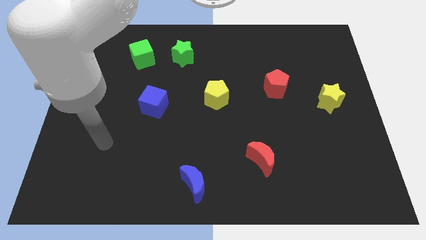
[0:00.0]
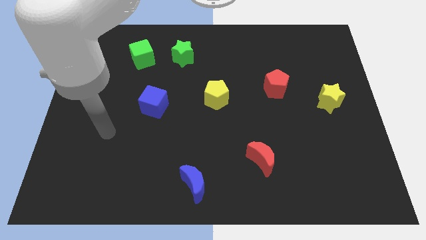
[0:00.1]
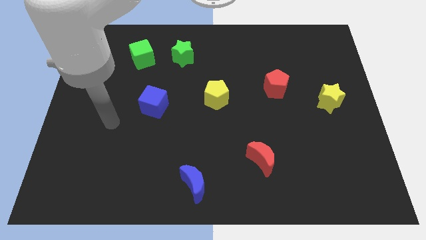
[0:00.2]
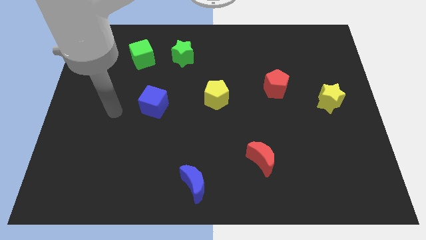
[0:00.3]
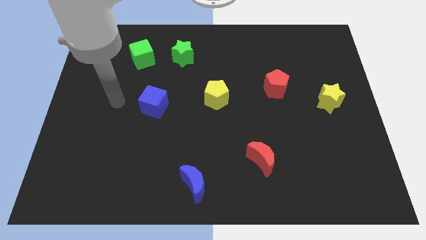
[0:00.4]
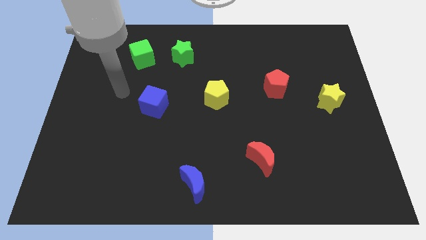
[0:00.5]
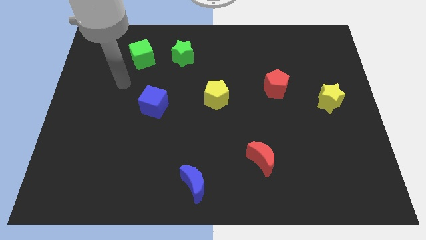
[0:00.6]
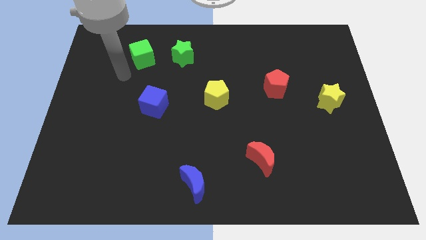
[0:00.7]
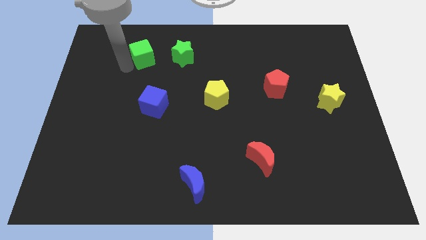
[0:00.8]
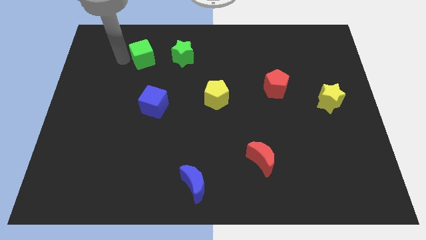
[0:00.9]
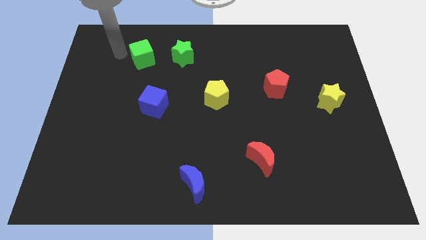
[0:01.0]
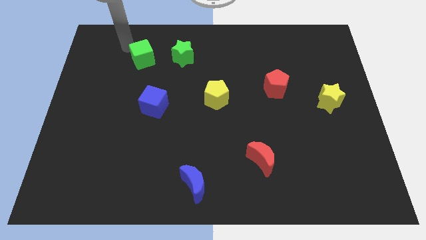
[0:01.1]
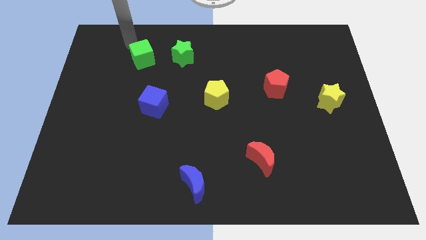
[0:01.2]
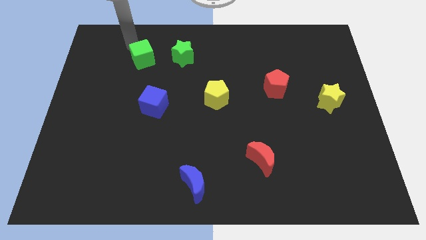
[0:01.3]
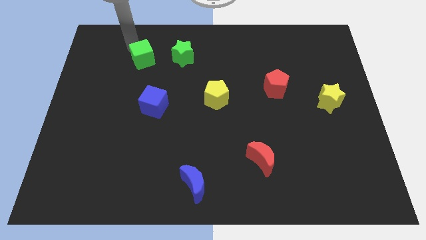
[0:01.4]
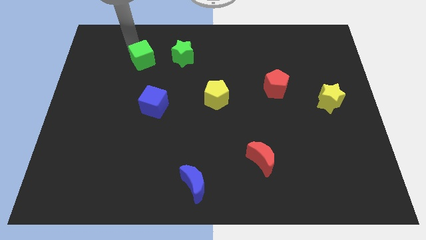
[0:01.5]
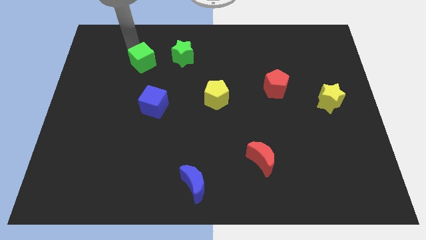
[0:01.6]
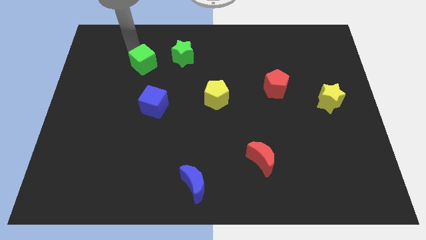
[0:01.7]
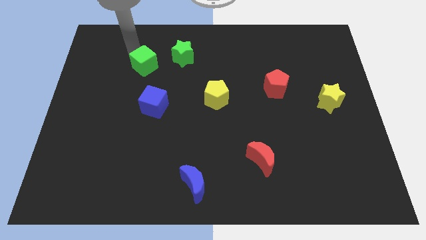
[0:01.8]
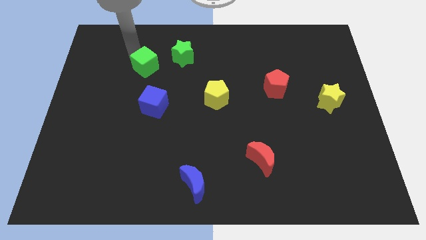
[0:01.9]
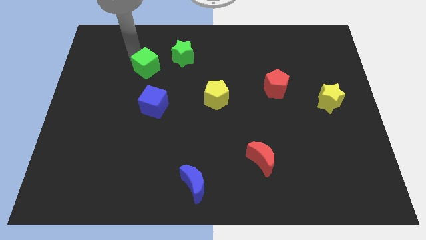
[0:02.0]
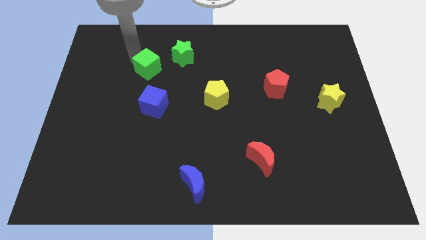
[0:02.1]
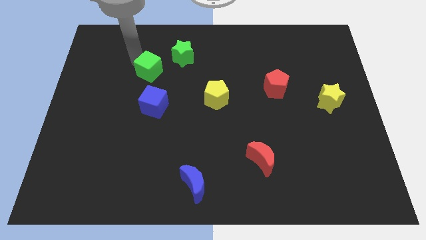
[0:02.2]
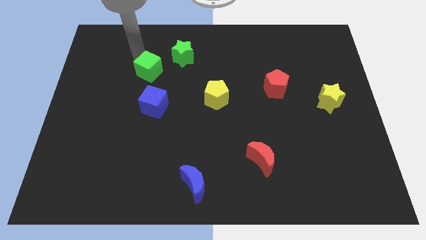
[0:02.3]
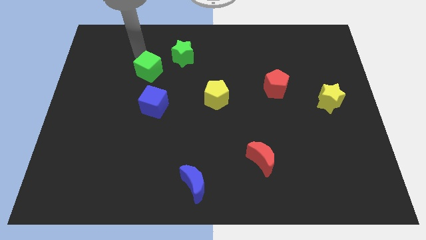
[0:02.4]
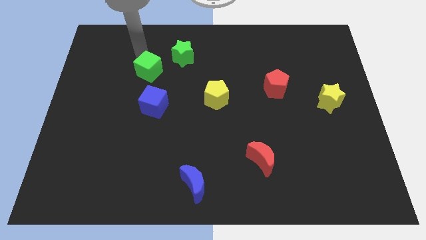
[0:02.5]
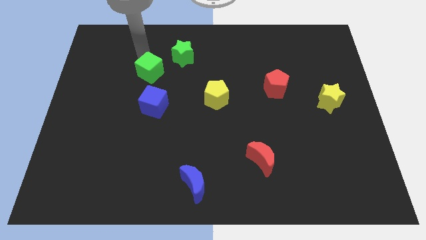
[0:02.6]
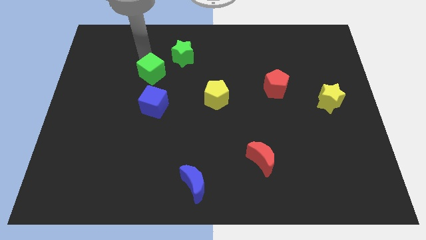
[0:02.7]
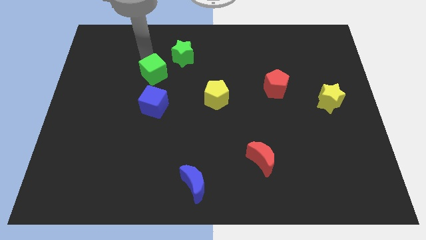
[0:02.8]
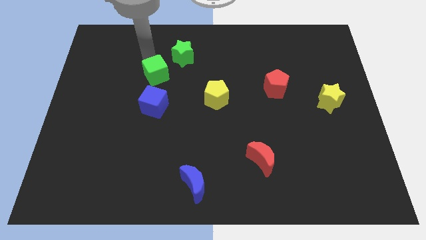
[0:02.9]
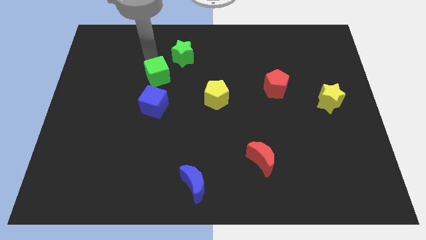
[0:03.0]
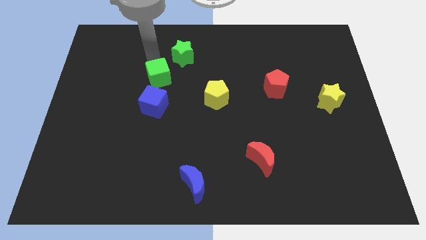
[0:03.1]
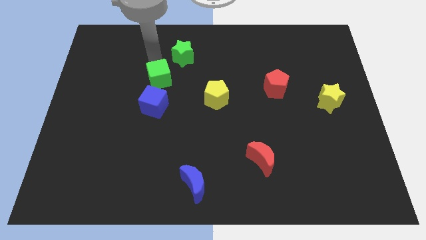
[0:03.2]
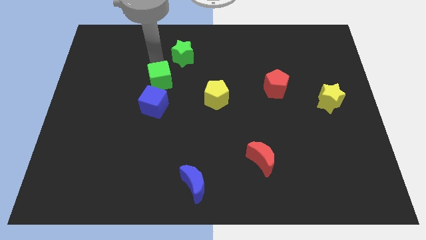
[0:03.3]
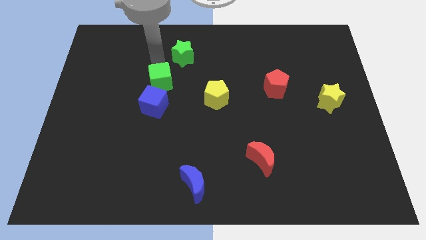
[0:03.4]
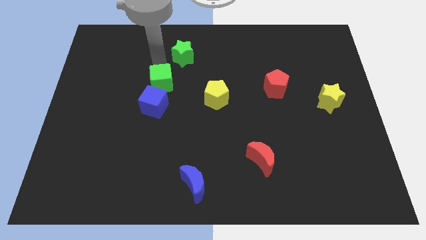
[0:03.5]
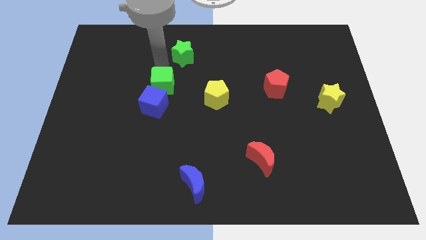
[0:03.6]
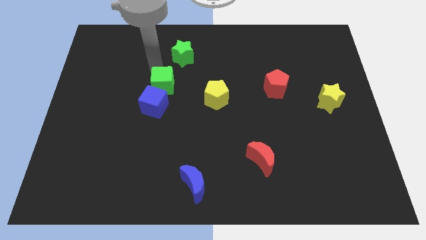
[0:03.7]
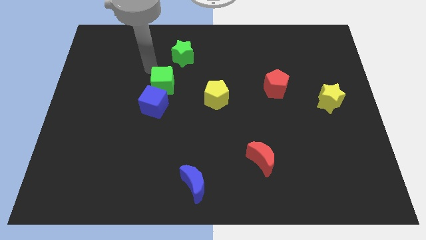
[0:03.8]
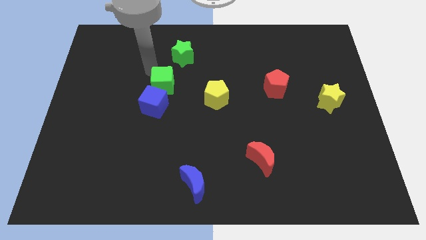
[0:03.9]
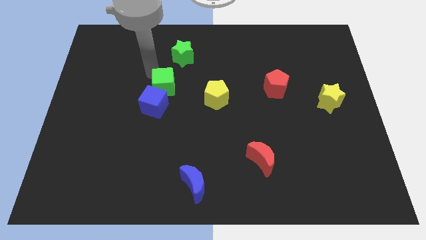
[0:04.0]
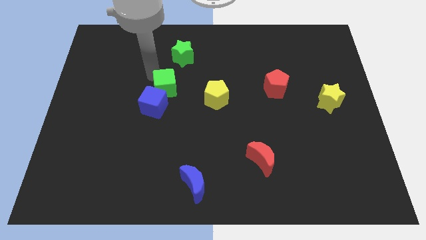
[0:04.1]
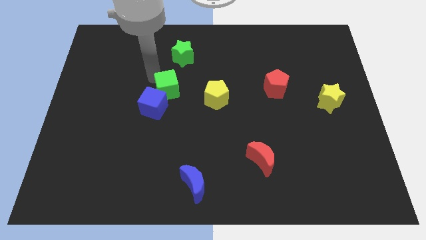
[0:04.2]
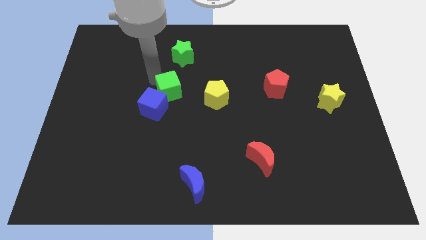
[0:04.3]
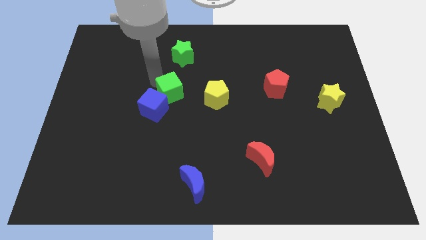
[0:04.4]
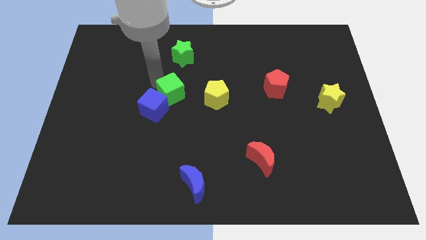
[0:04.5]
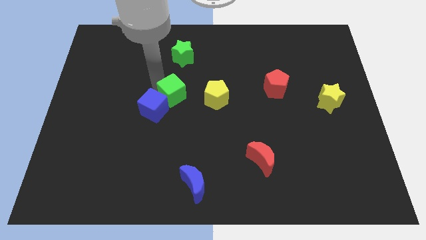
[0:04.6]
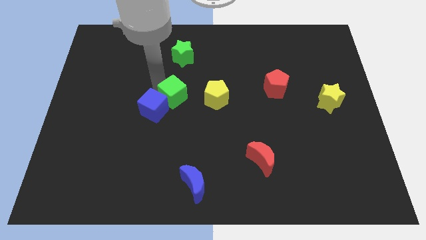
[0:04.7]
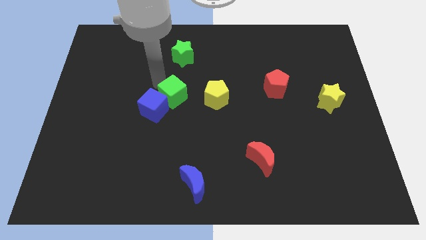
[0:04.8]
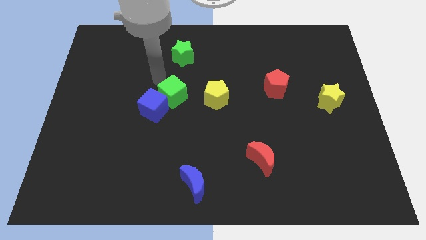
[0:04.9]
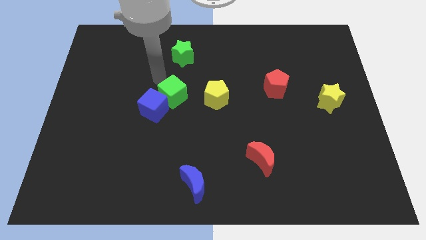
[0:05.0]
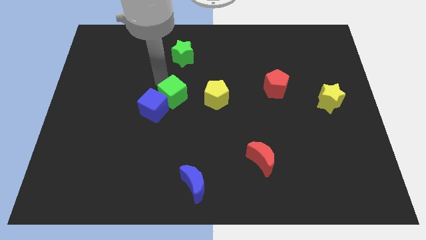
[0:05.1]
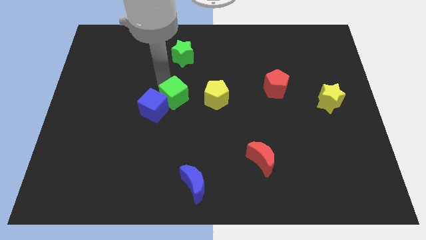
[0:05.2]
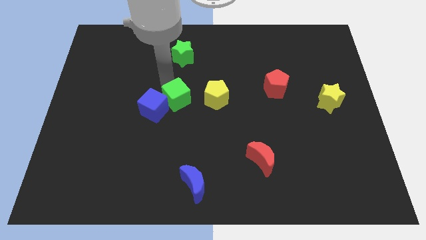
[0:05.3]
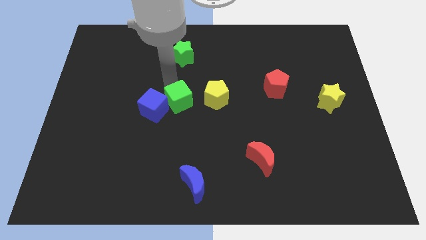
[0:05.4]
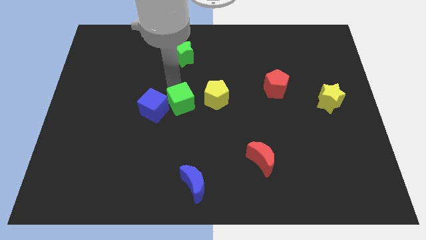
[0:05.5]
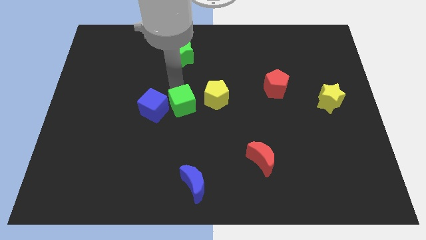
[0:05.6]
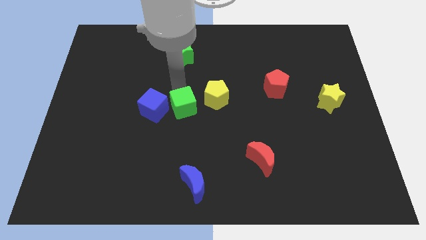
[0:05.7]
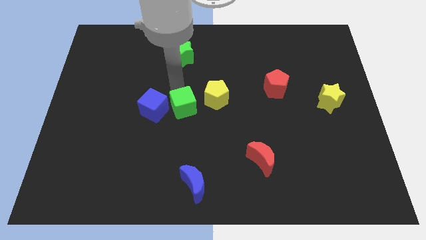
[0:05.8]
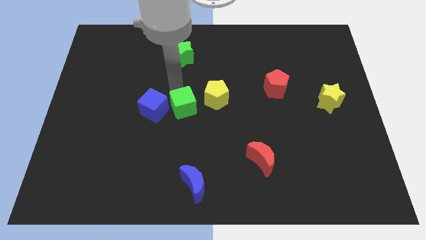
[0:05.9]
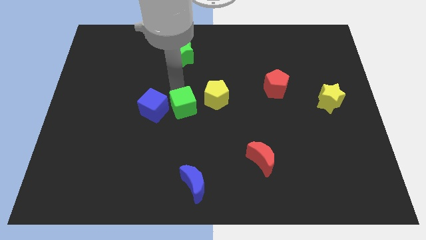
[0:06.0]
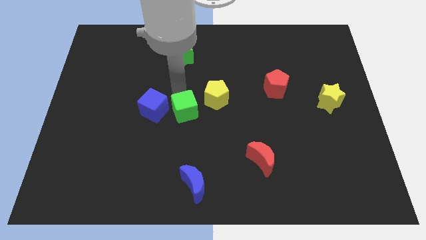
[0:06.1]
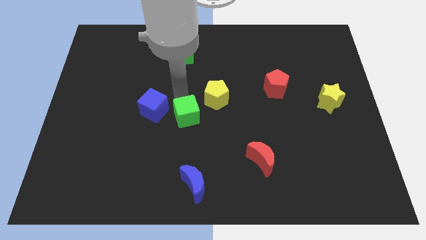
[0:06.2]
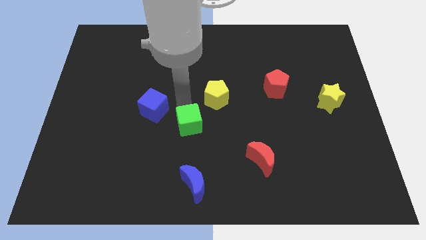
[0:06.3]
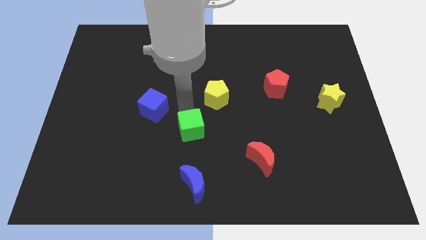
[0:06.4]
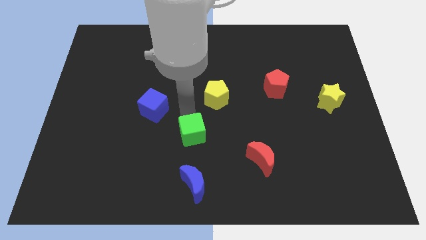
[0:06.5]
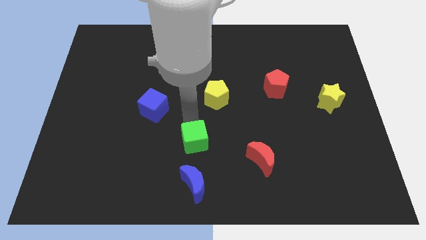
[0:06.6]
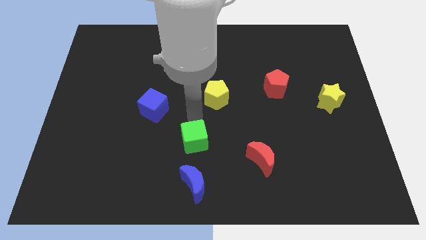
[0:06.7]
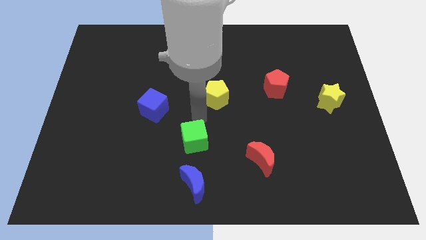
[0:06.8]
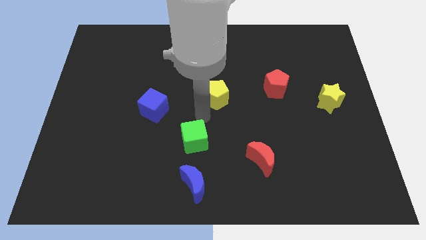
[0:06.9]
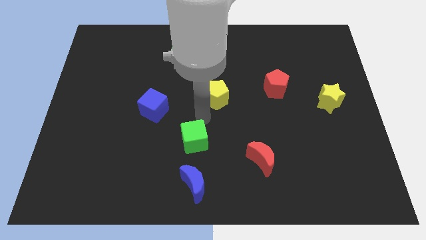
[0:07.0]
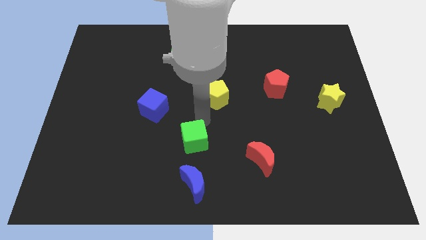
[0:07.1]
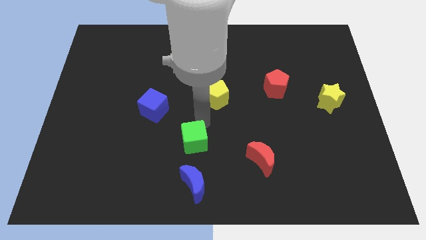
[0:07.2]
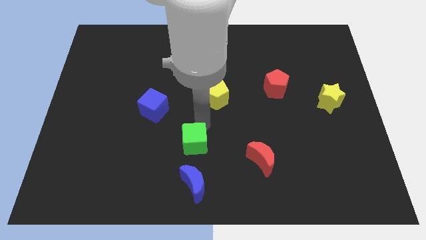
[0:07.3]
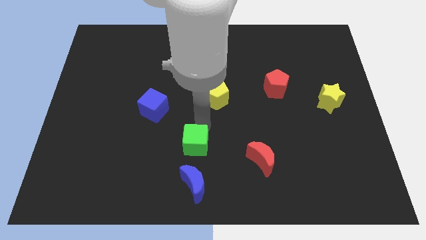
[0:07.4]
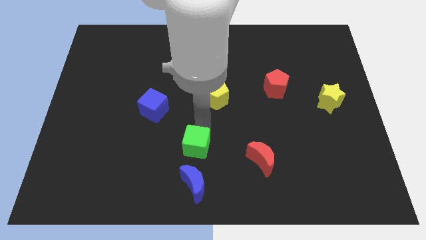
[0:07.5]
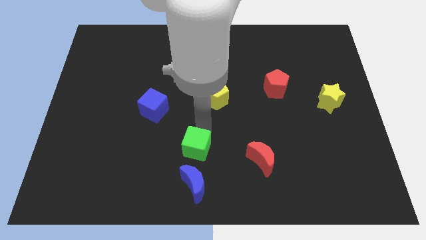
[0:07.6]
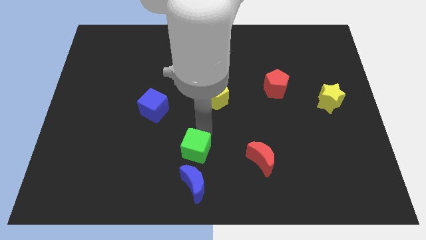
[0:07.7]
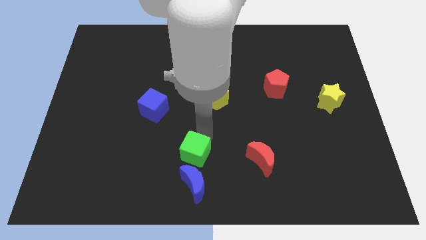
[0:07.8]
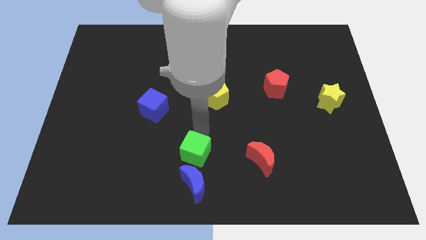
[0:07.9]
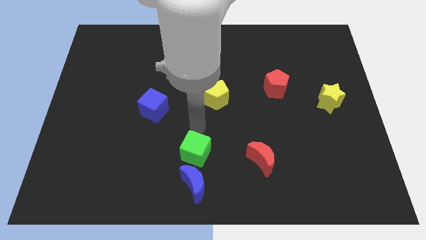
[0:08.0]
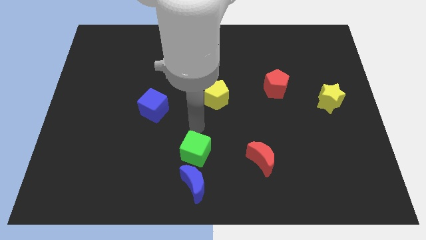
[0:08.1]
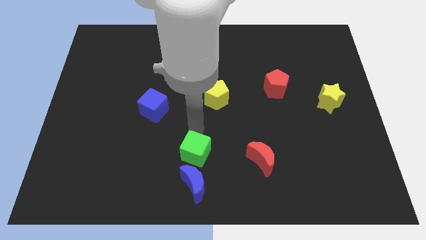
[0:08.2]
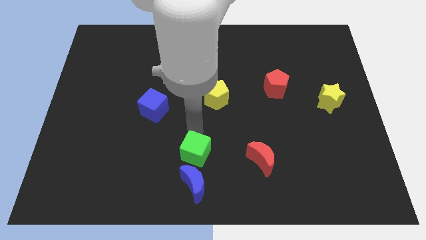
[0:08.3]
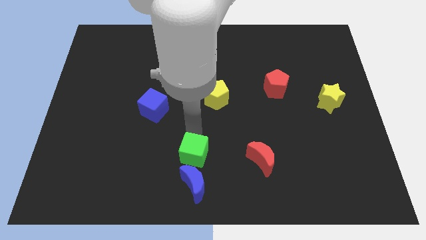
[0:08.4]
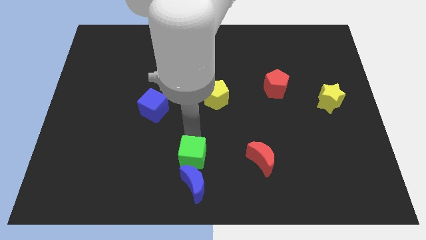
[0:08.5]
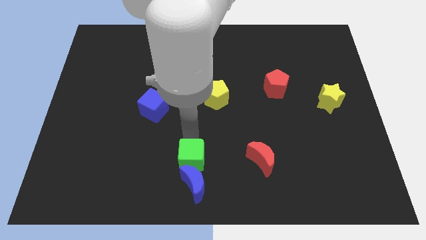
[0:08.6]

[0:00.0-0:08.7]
push the green cube next to the blue moon
